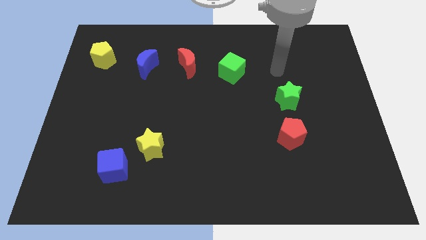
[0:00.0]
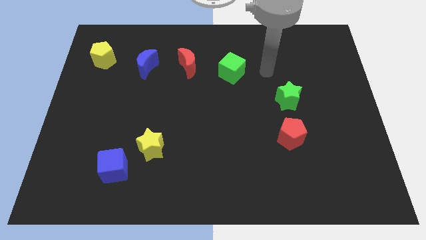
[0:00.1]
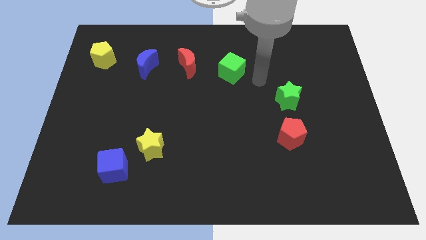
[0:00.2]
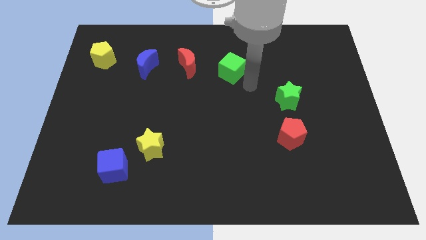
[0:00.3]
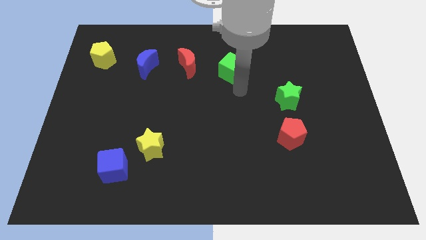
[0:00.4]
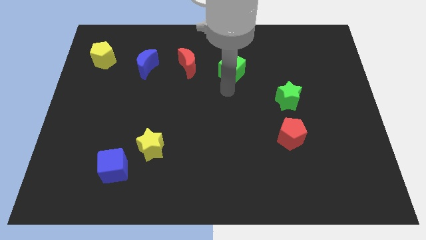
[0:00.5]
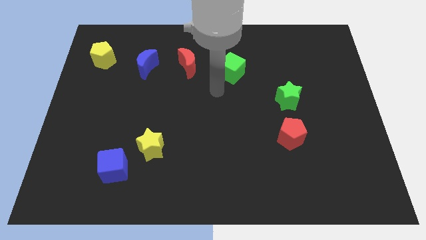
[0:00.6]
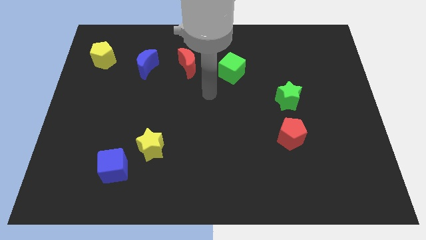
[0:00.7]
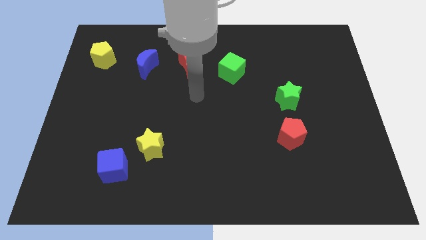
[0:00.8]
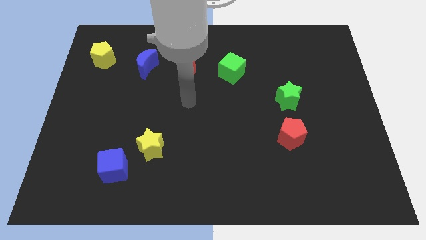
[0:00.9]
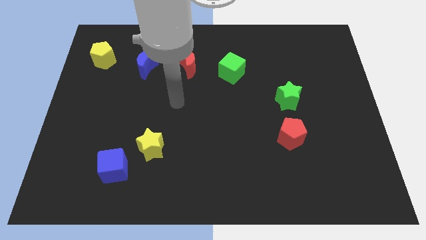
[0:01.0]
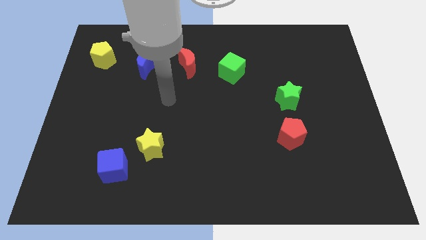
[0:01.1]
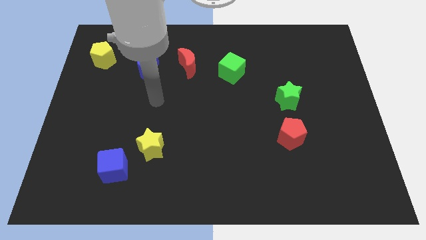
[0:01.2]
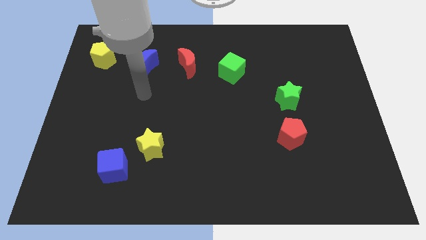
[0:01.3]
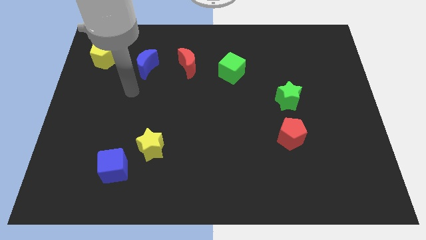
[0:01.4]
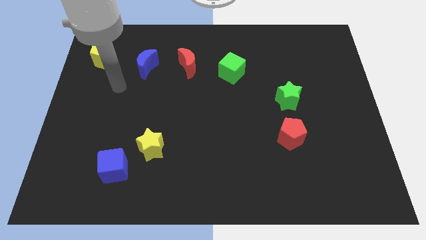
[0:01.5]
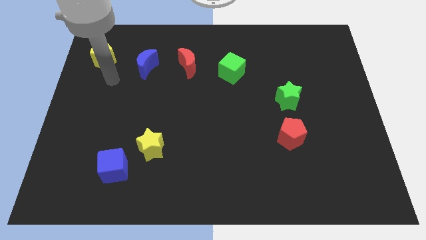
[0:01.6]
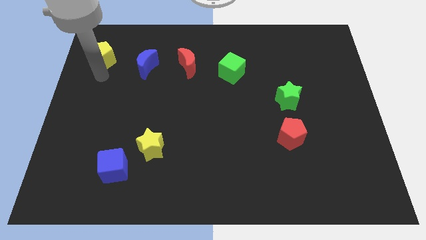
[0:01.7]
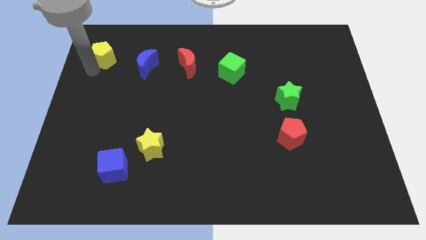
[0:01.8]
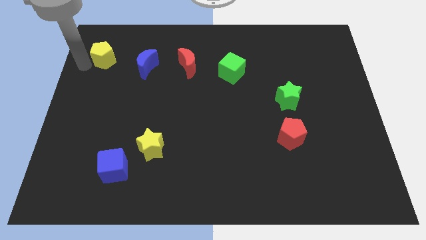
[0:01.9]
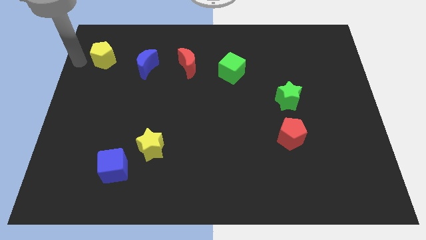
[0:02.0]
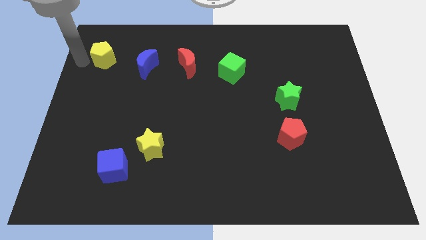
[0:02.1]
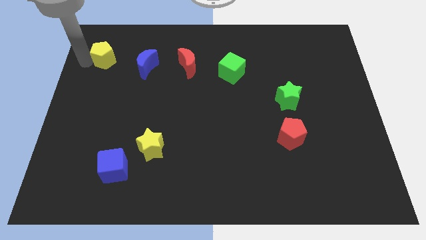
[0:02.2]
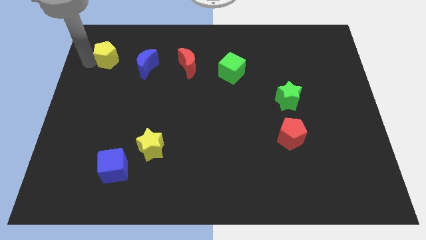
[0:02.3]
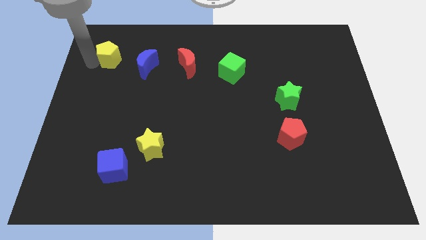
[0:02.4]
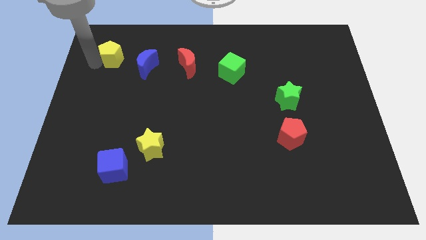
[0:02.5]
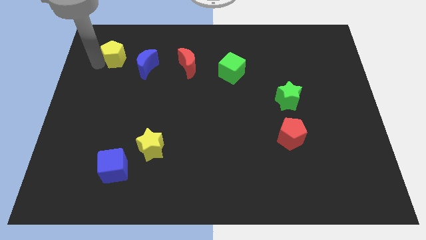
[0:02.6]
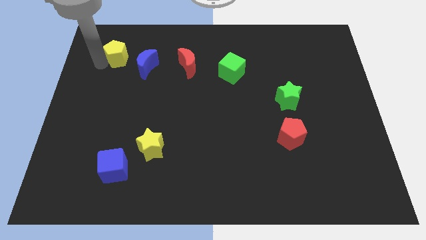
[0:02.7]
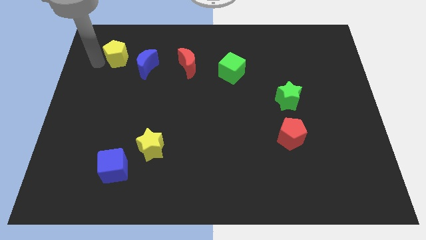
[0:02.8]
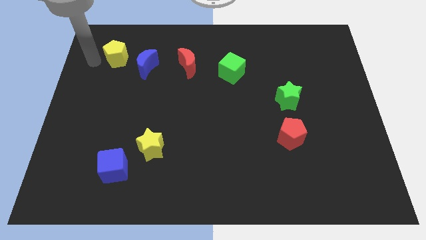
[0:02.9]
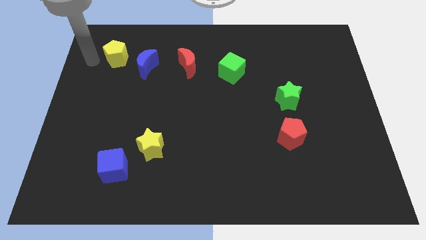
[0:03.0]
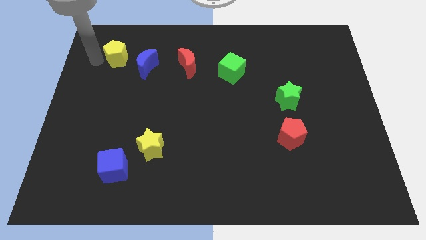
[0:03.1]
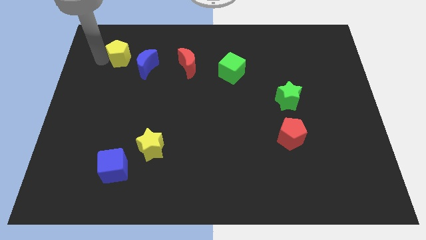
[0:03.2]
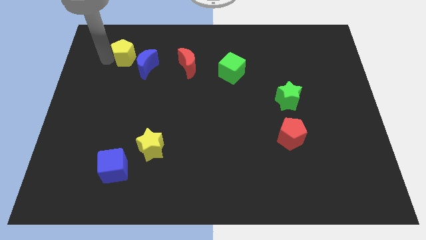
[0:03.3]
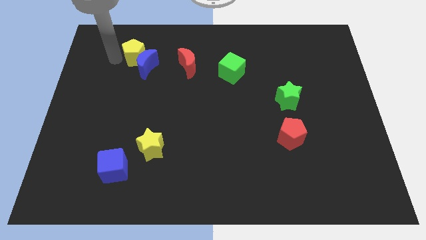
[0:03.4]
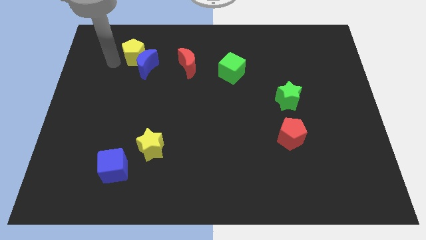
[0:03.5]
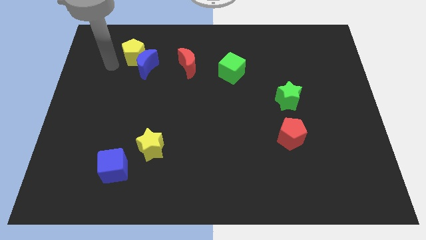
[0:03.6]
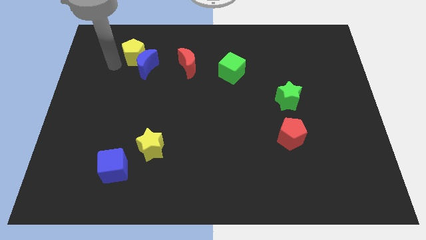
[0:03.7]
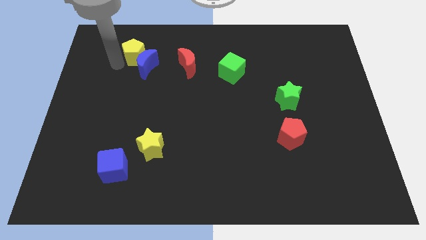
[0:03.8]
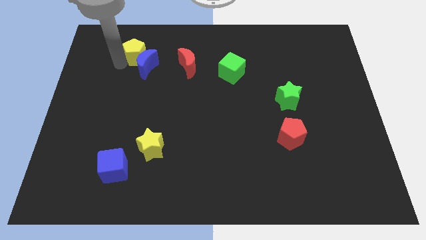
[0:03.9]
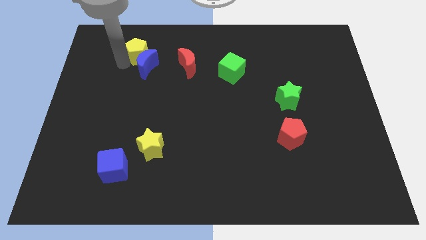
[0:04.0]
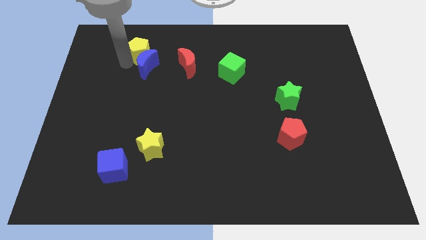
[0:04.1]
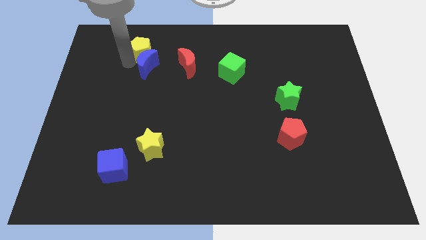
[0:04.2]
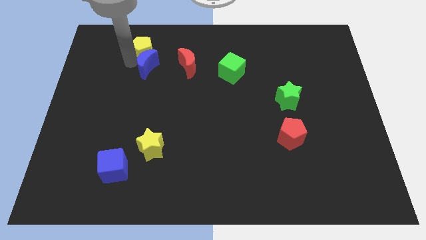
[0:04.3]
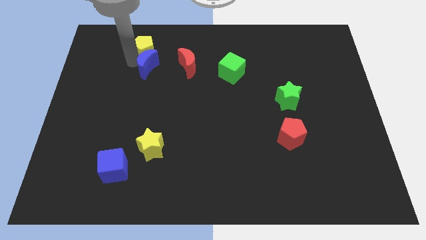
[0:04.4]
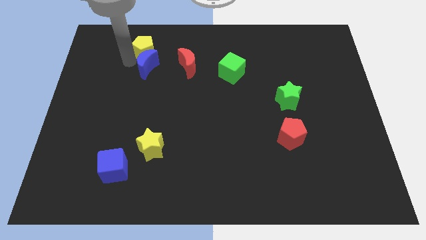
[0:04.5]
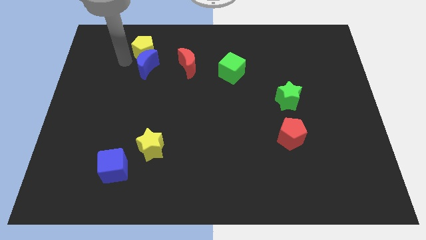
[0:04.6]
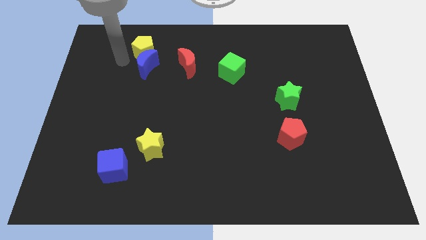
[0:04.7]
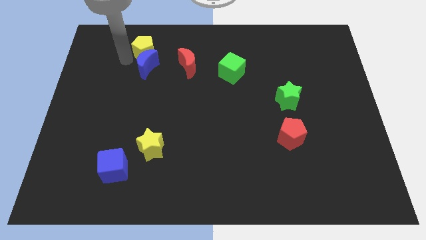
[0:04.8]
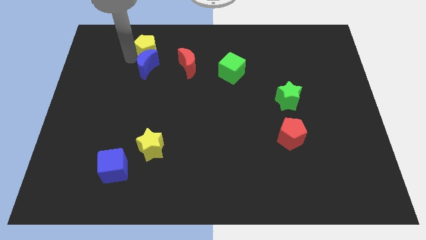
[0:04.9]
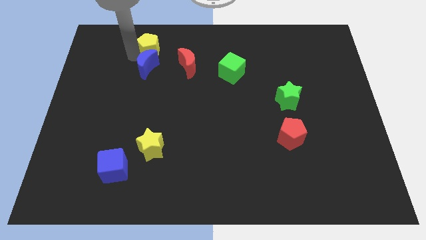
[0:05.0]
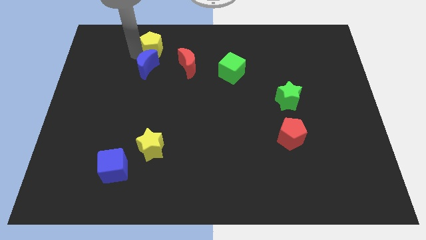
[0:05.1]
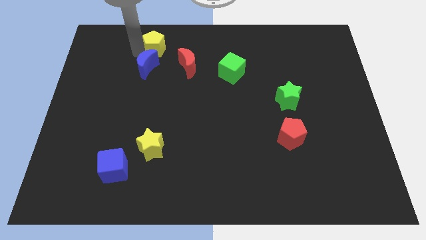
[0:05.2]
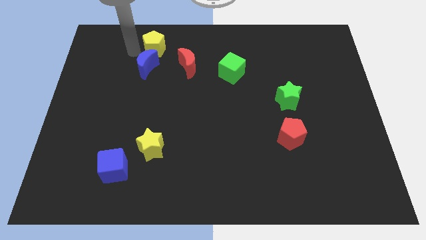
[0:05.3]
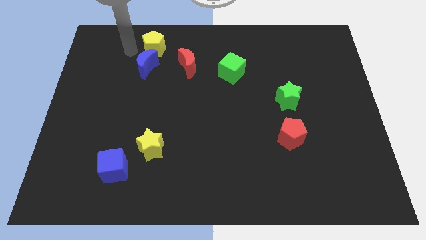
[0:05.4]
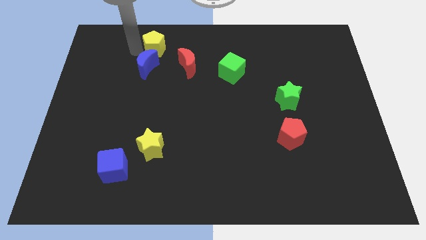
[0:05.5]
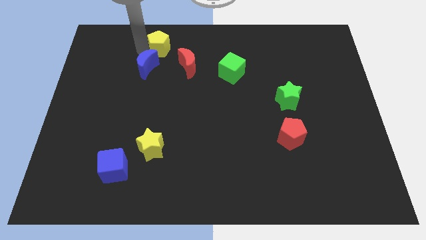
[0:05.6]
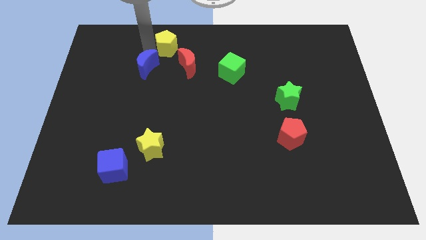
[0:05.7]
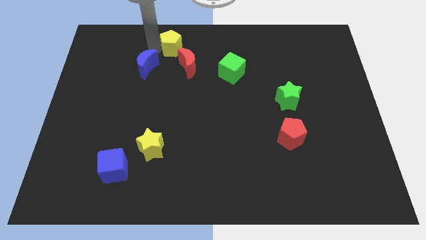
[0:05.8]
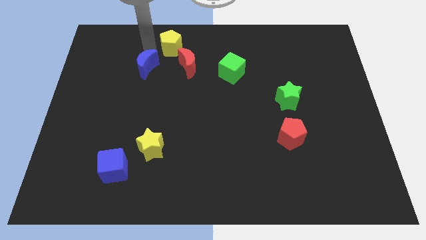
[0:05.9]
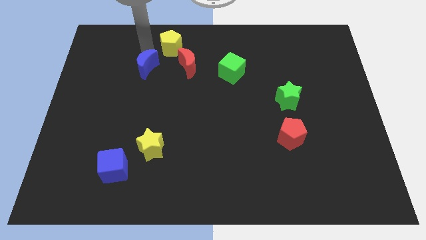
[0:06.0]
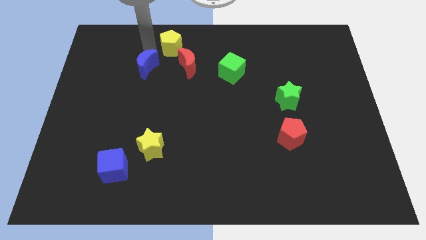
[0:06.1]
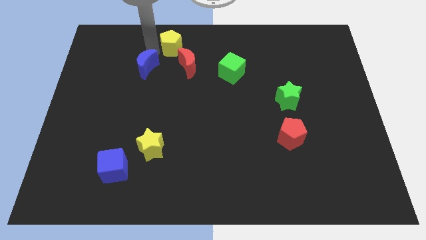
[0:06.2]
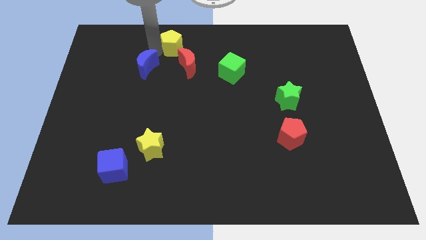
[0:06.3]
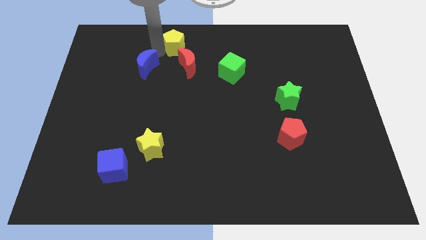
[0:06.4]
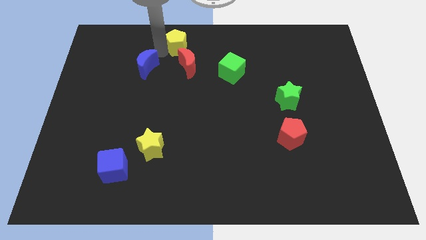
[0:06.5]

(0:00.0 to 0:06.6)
slide the yellow pentagon to the top side
